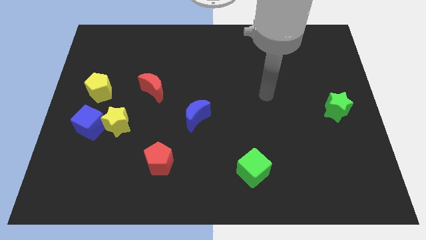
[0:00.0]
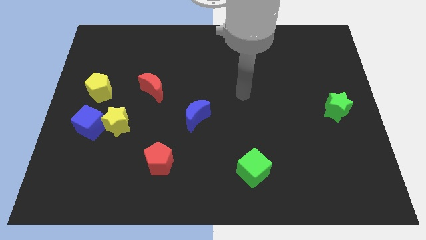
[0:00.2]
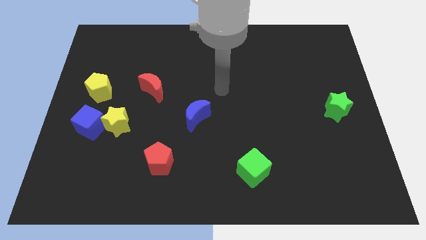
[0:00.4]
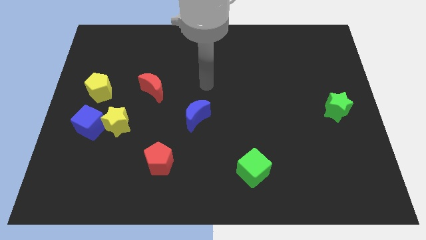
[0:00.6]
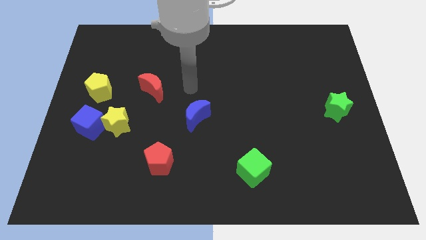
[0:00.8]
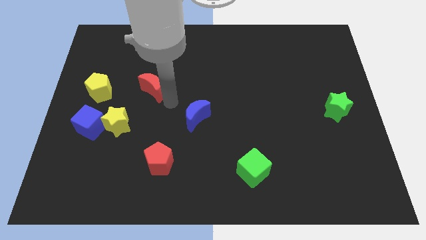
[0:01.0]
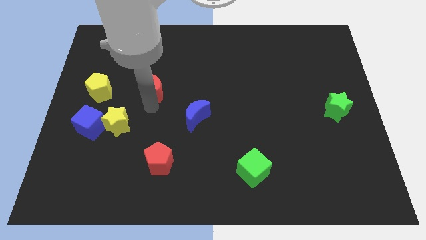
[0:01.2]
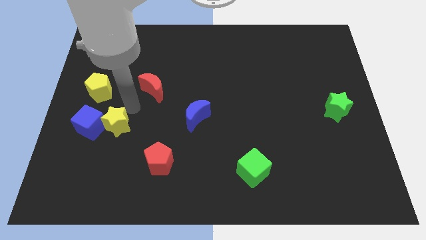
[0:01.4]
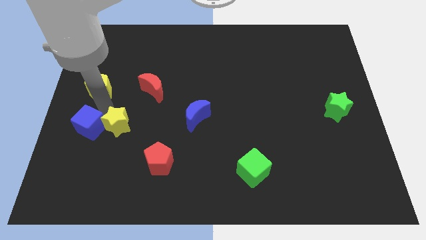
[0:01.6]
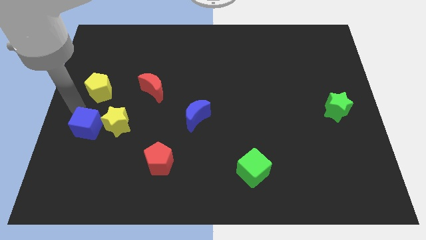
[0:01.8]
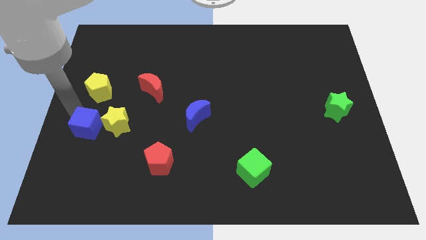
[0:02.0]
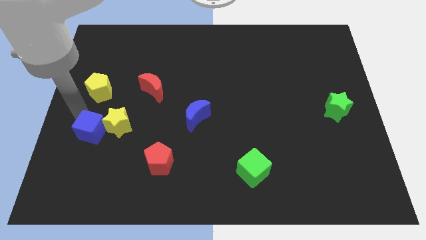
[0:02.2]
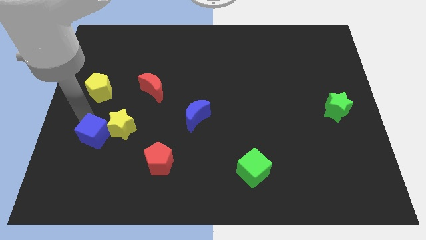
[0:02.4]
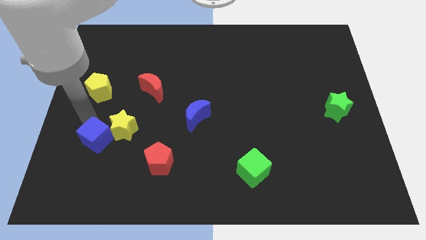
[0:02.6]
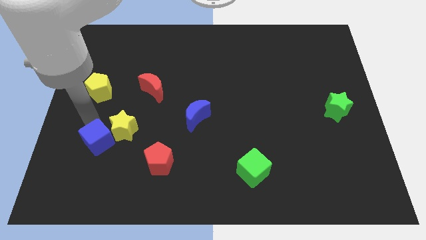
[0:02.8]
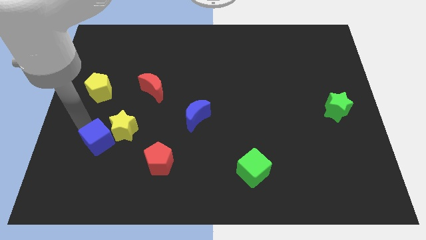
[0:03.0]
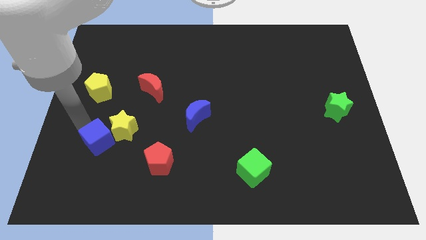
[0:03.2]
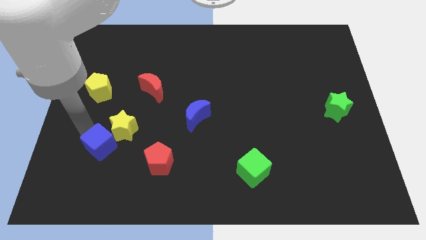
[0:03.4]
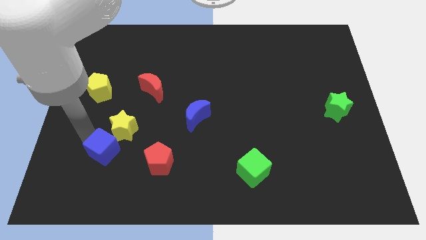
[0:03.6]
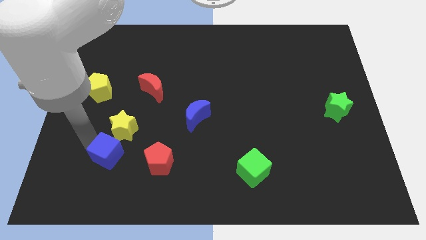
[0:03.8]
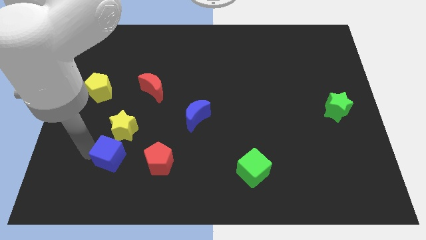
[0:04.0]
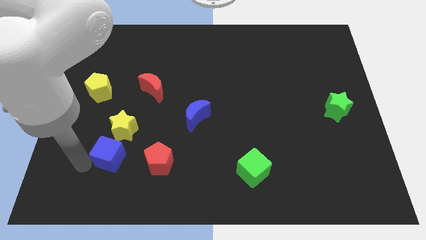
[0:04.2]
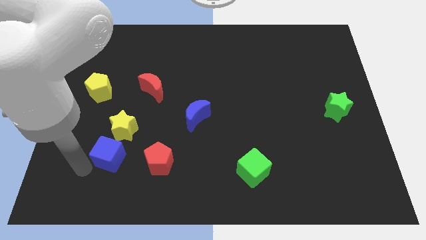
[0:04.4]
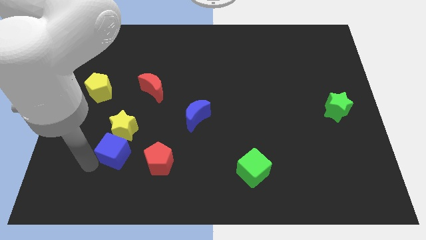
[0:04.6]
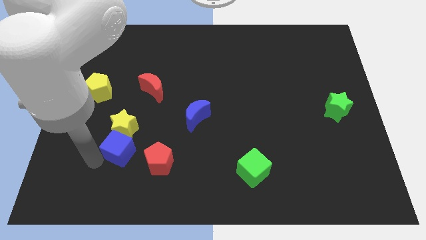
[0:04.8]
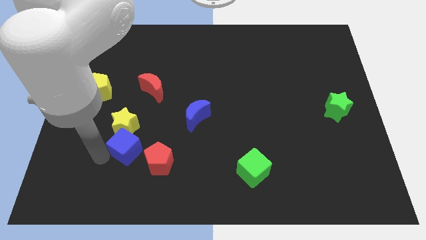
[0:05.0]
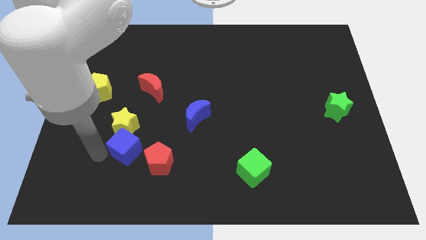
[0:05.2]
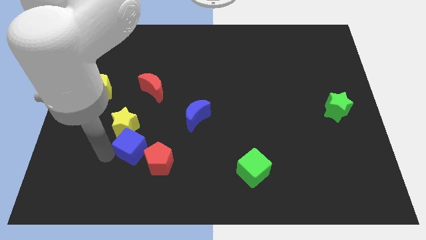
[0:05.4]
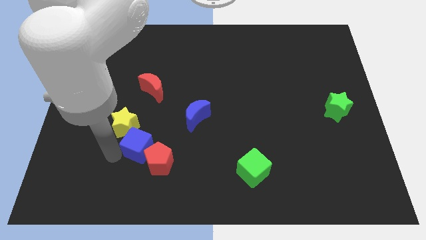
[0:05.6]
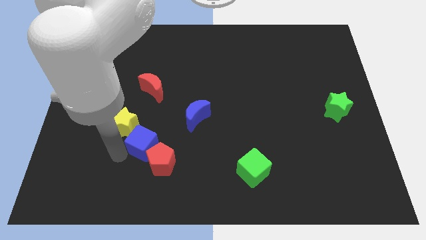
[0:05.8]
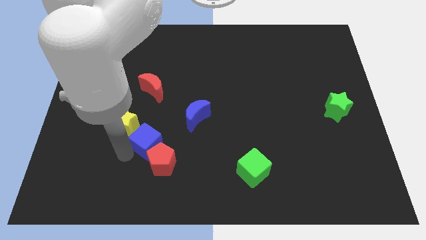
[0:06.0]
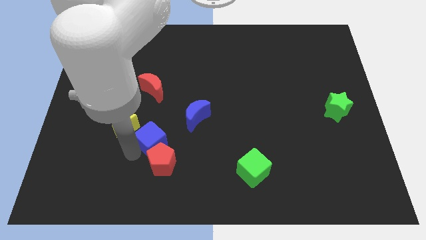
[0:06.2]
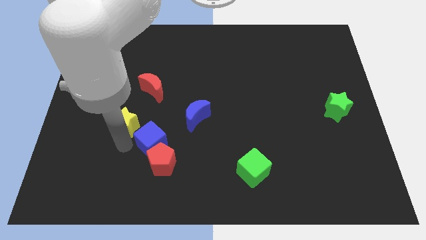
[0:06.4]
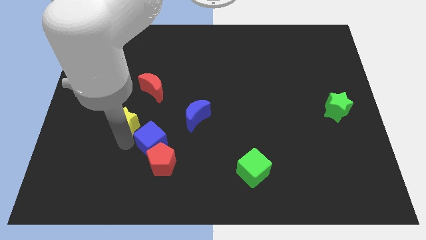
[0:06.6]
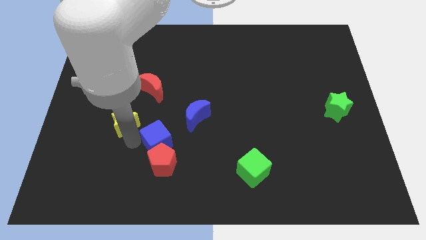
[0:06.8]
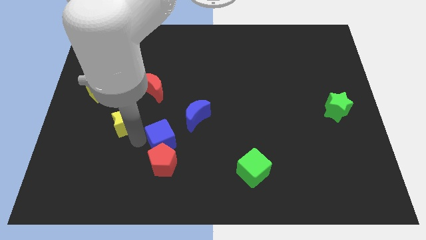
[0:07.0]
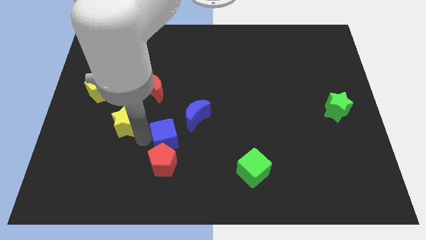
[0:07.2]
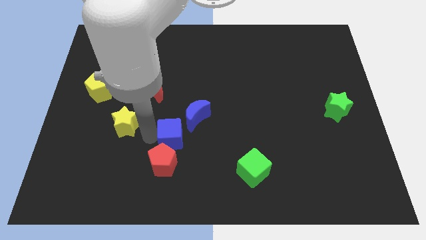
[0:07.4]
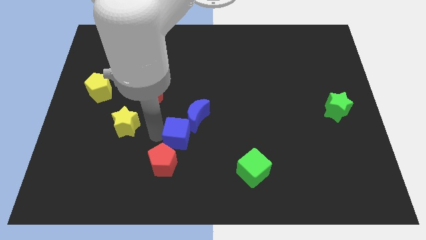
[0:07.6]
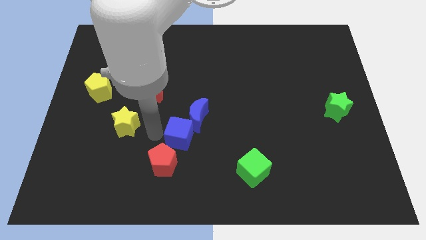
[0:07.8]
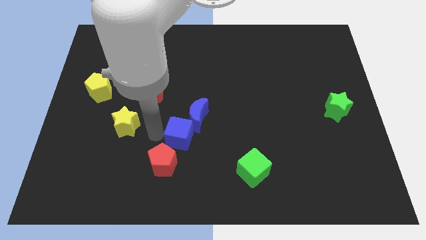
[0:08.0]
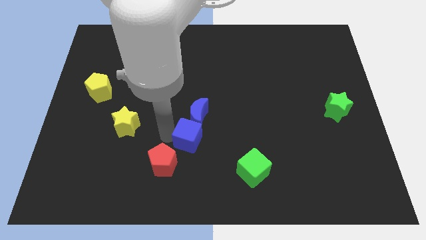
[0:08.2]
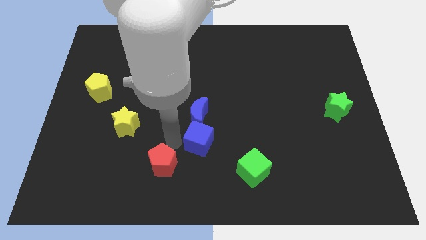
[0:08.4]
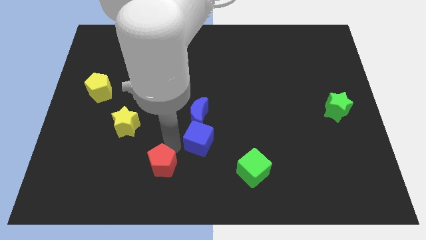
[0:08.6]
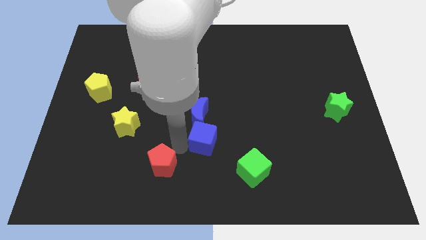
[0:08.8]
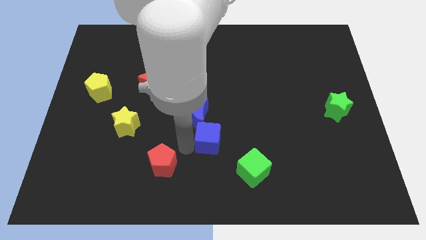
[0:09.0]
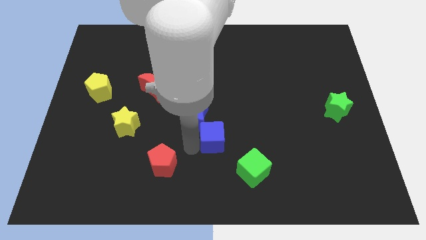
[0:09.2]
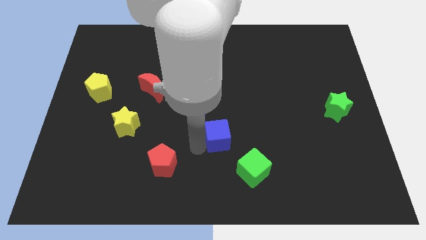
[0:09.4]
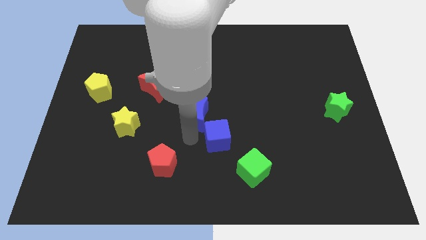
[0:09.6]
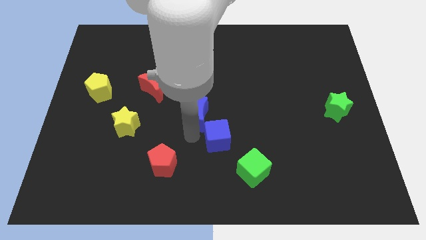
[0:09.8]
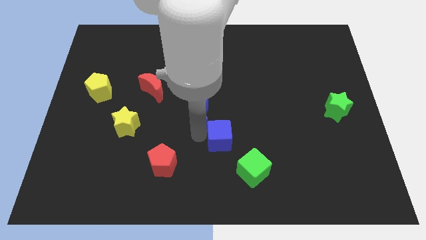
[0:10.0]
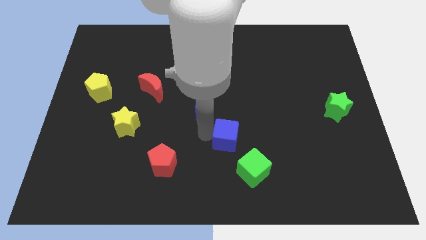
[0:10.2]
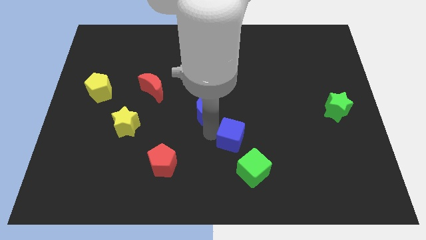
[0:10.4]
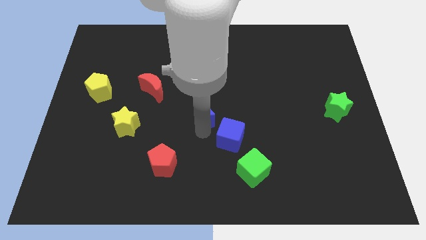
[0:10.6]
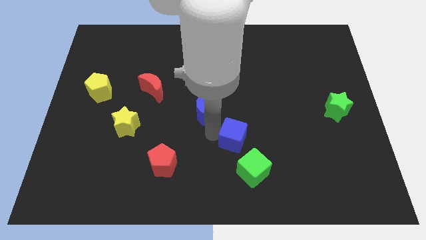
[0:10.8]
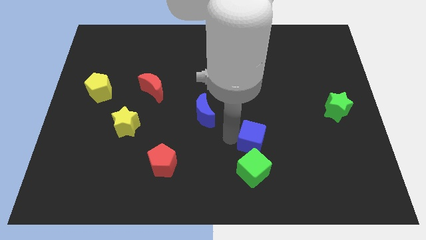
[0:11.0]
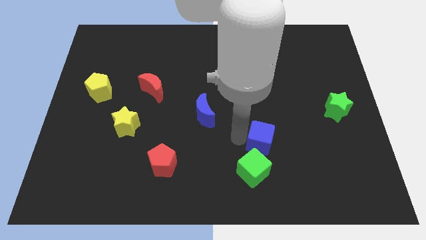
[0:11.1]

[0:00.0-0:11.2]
put the blue cube to the top right of the green cube
